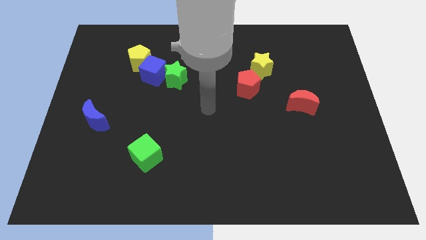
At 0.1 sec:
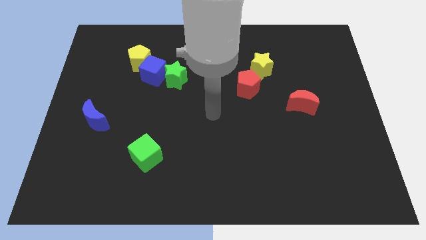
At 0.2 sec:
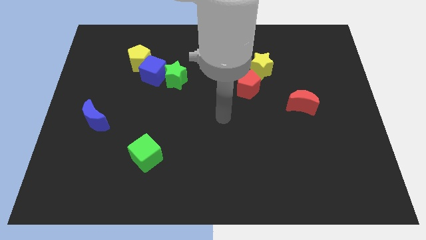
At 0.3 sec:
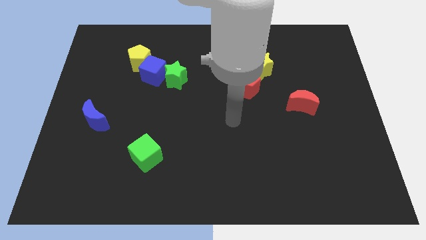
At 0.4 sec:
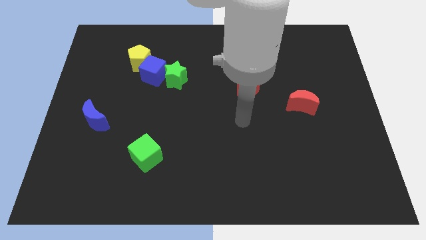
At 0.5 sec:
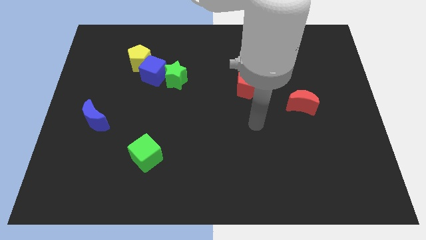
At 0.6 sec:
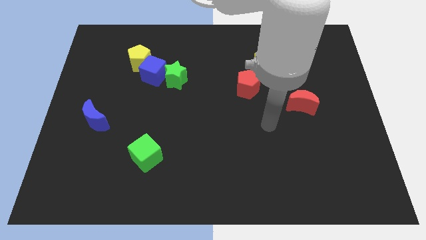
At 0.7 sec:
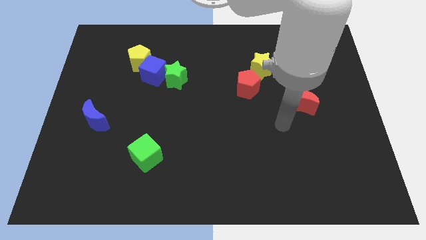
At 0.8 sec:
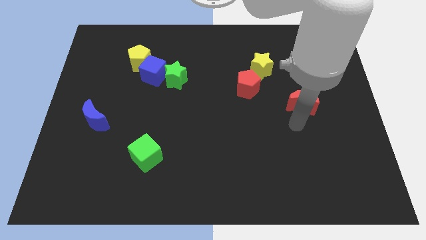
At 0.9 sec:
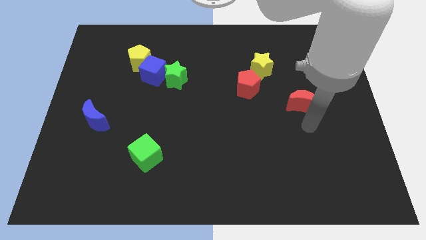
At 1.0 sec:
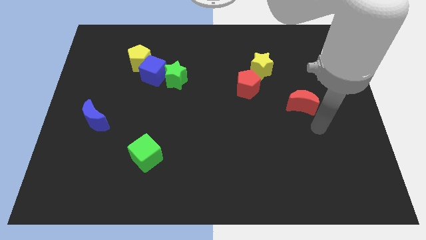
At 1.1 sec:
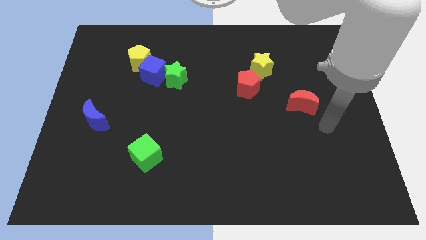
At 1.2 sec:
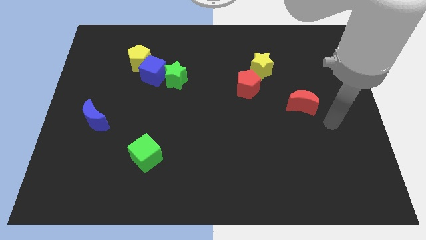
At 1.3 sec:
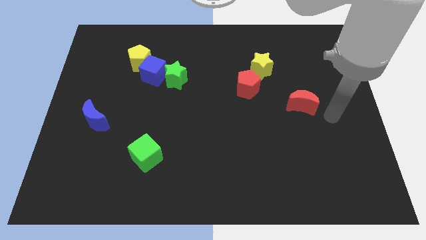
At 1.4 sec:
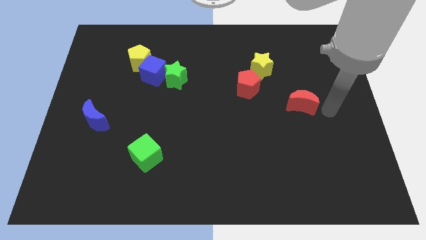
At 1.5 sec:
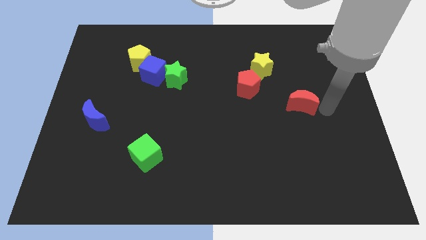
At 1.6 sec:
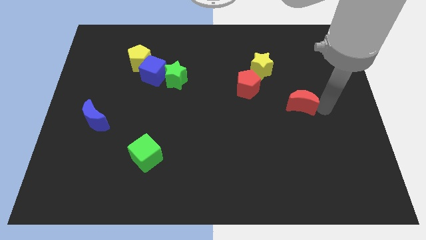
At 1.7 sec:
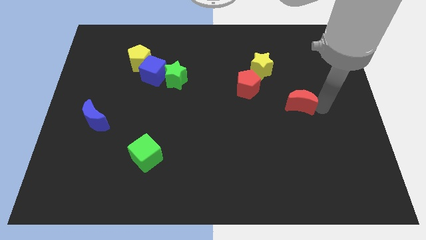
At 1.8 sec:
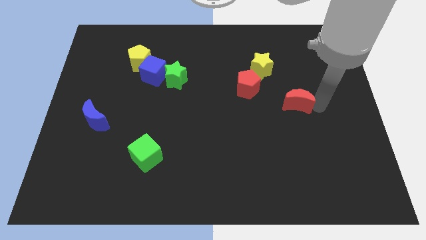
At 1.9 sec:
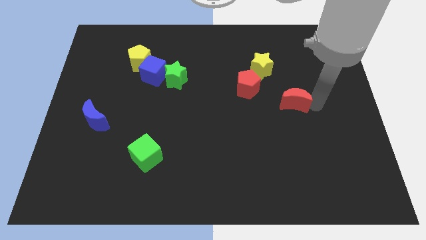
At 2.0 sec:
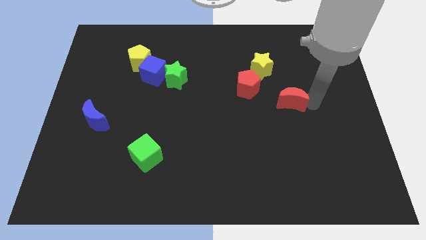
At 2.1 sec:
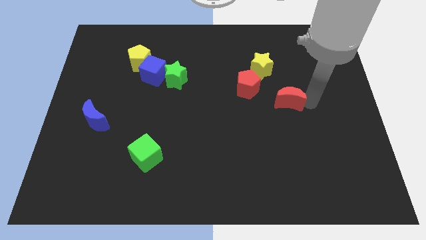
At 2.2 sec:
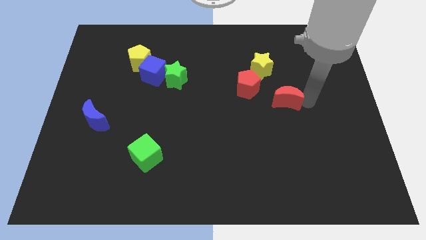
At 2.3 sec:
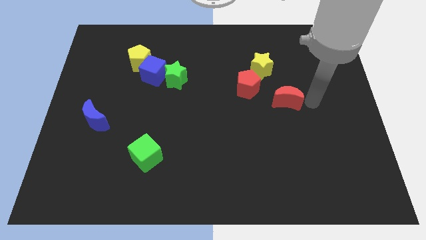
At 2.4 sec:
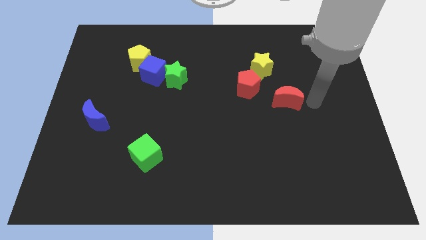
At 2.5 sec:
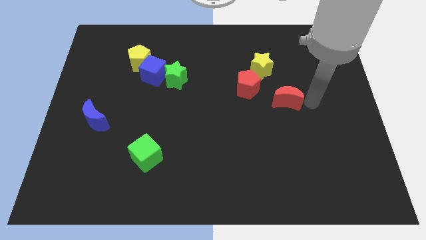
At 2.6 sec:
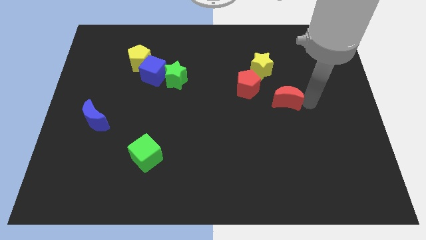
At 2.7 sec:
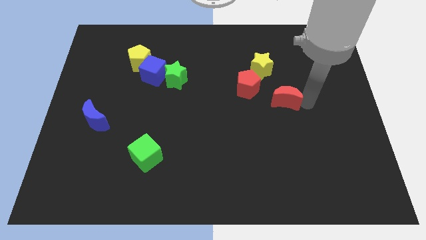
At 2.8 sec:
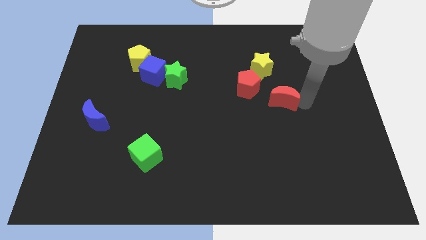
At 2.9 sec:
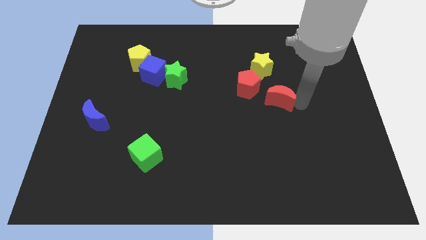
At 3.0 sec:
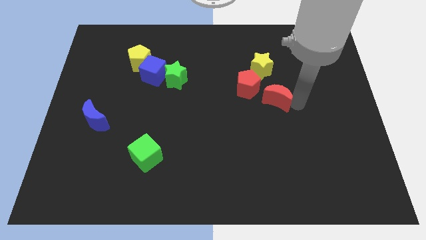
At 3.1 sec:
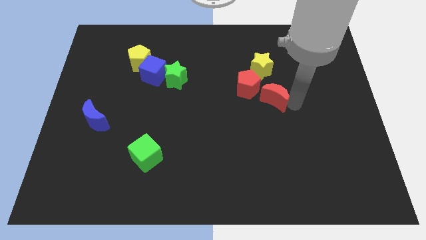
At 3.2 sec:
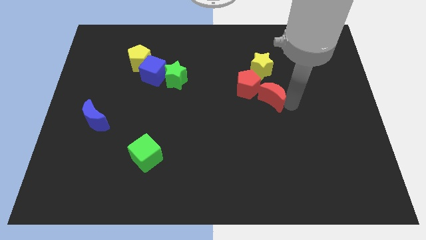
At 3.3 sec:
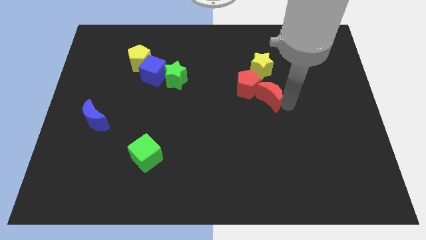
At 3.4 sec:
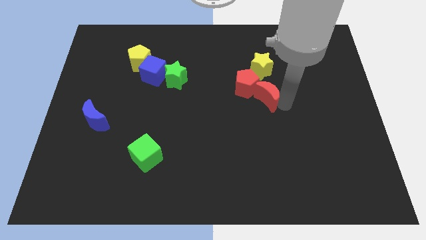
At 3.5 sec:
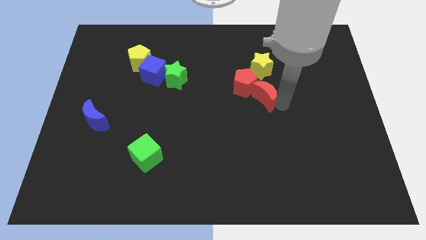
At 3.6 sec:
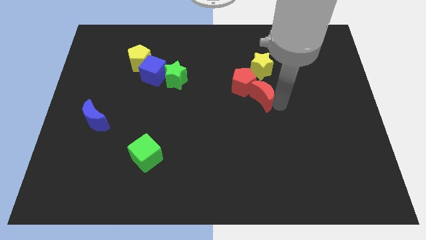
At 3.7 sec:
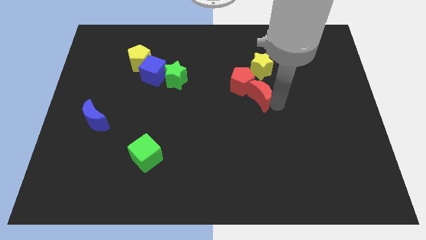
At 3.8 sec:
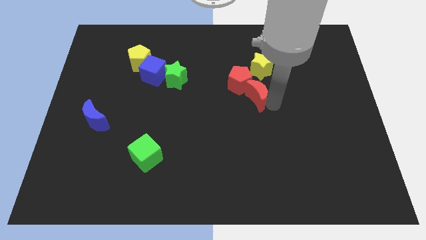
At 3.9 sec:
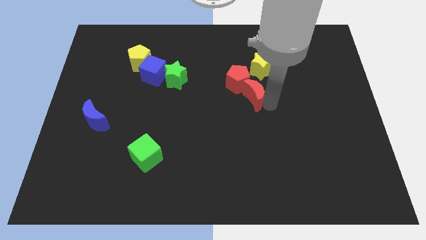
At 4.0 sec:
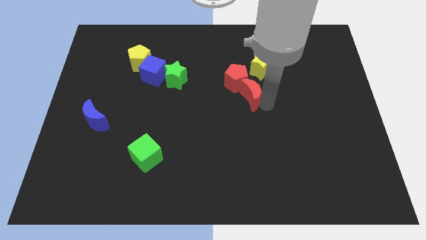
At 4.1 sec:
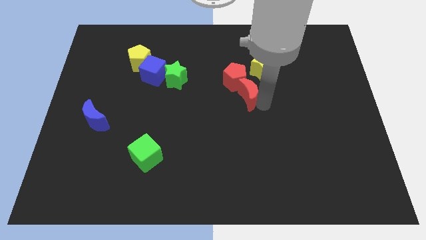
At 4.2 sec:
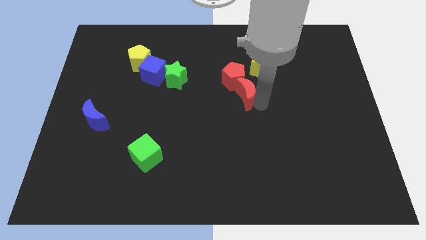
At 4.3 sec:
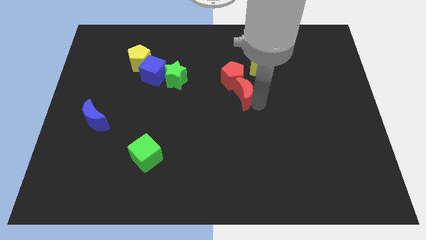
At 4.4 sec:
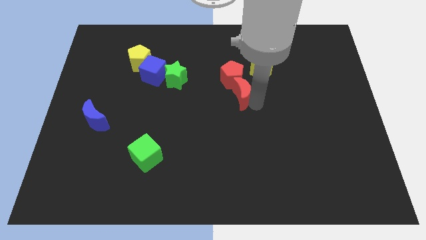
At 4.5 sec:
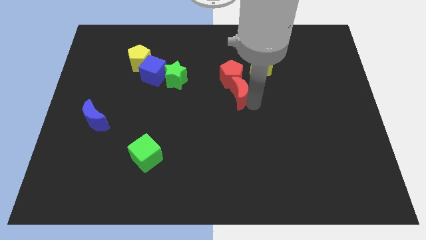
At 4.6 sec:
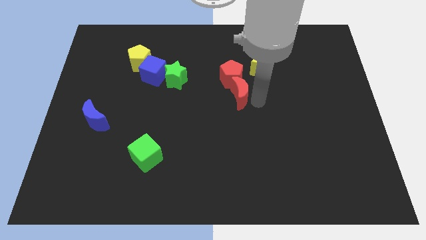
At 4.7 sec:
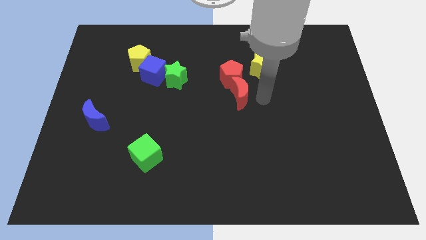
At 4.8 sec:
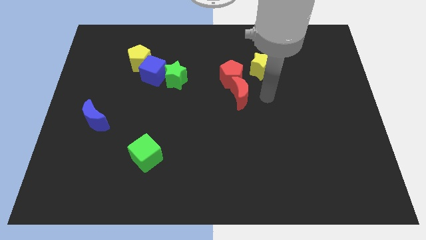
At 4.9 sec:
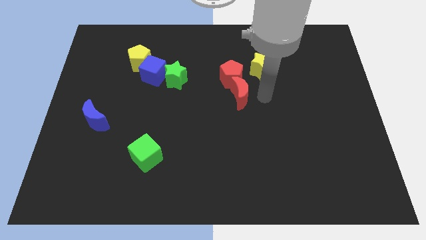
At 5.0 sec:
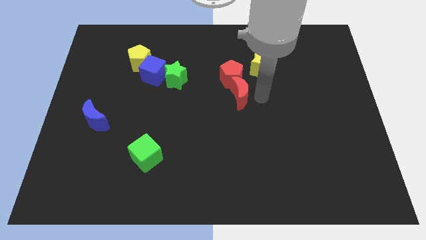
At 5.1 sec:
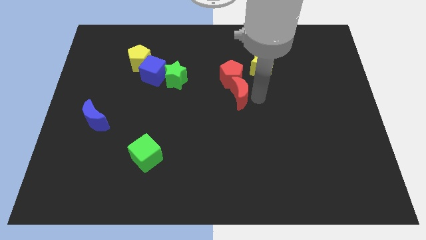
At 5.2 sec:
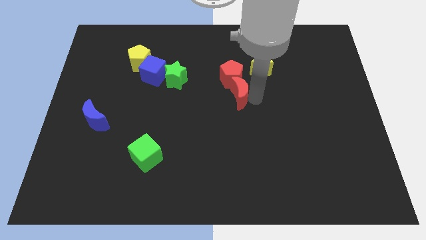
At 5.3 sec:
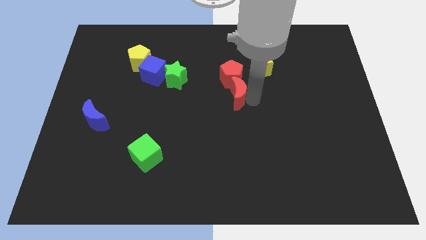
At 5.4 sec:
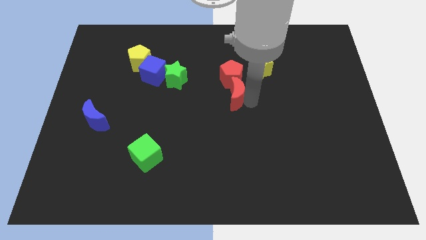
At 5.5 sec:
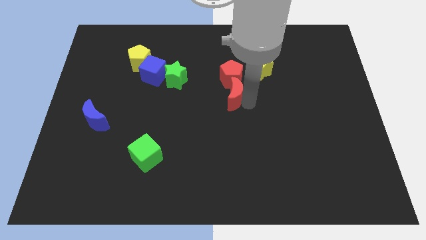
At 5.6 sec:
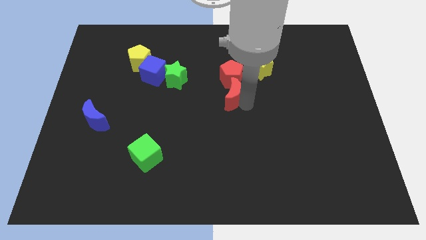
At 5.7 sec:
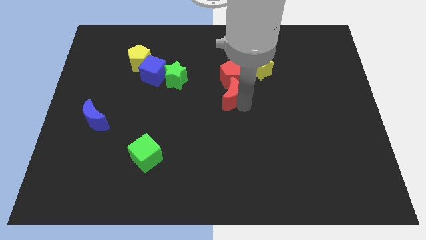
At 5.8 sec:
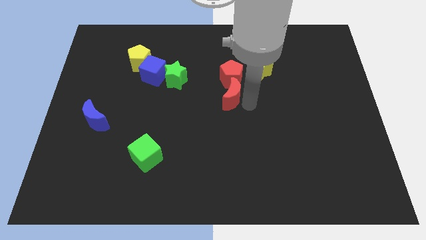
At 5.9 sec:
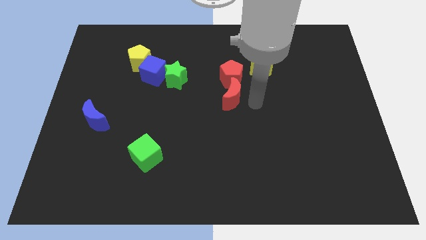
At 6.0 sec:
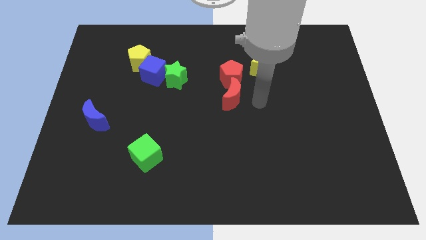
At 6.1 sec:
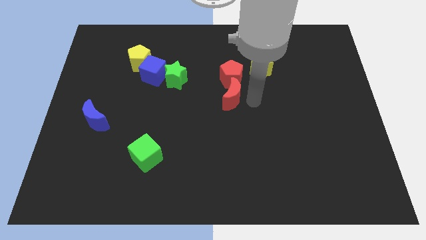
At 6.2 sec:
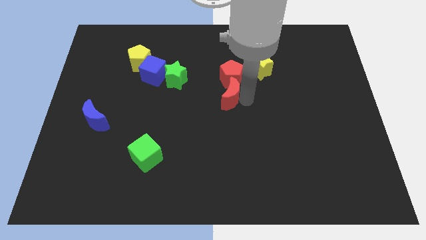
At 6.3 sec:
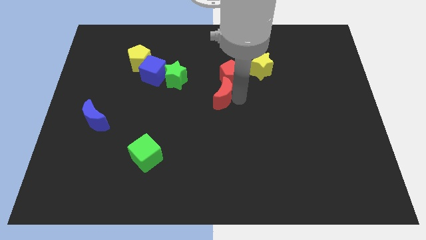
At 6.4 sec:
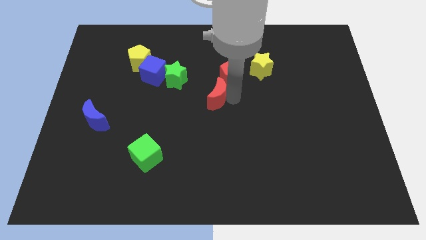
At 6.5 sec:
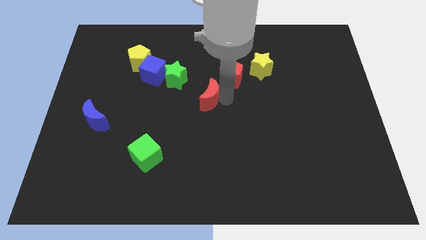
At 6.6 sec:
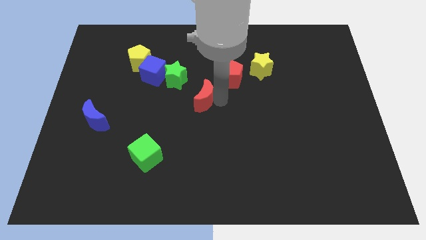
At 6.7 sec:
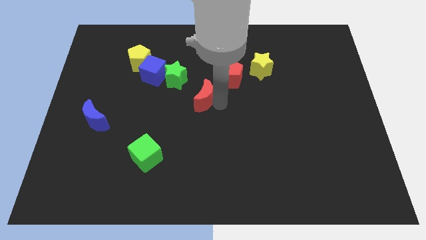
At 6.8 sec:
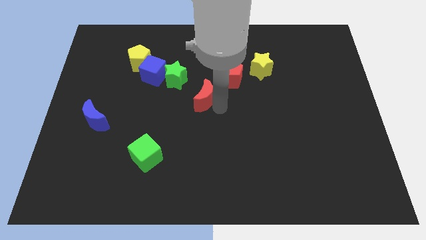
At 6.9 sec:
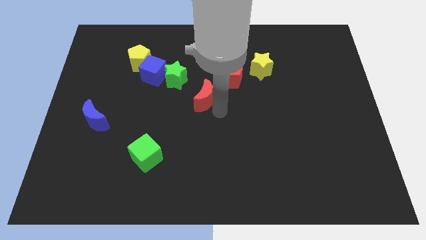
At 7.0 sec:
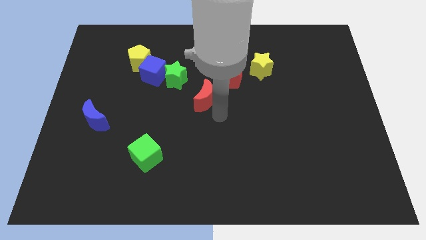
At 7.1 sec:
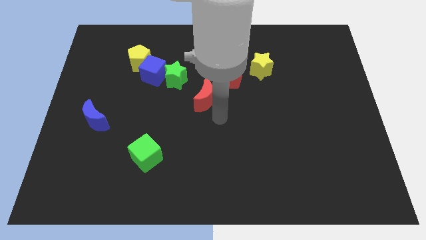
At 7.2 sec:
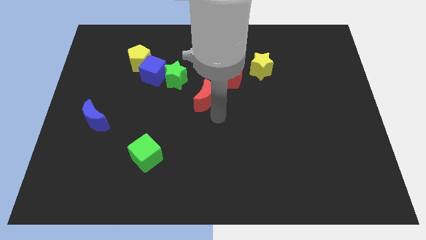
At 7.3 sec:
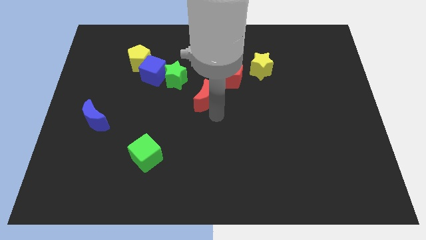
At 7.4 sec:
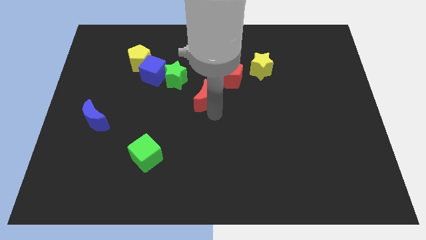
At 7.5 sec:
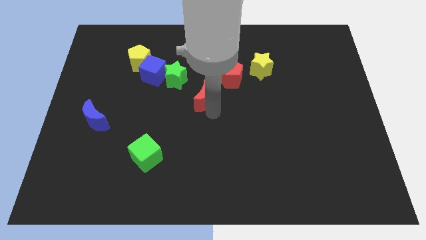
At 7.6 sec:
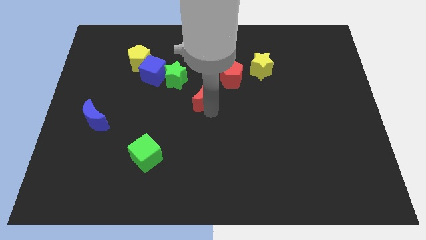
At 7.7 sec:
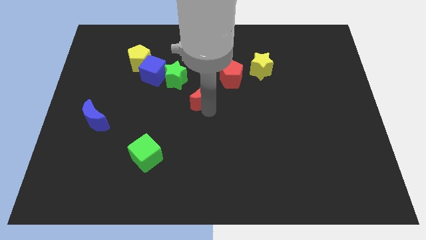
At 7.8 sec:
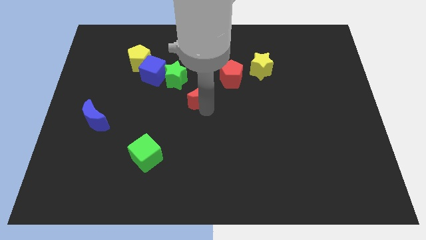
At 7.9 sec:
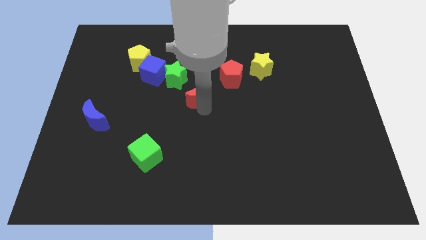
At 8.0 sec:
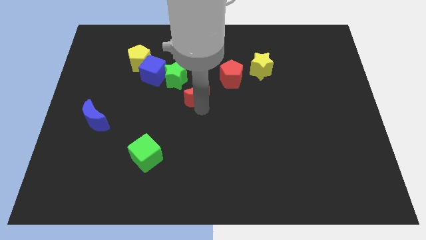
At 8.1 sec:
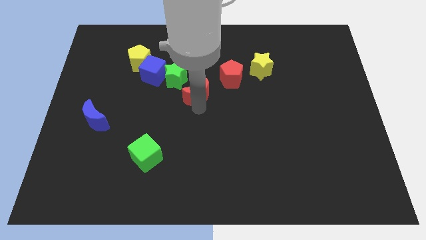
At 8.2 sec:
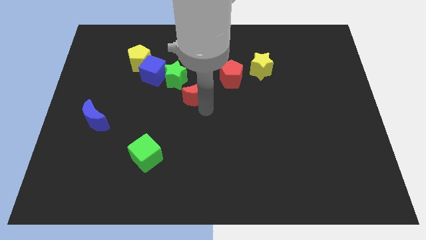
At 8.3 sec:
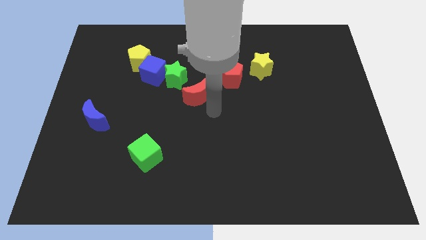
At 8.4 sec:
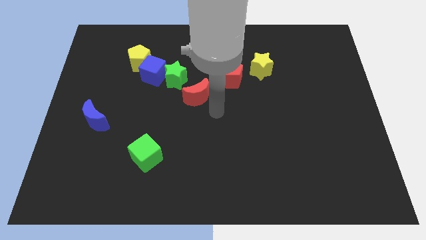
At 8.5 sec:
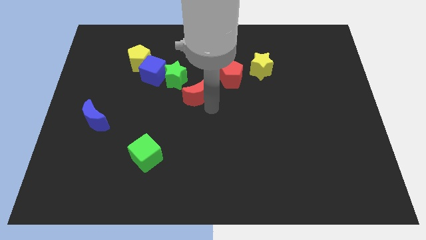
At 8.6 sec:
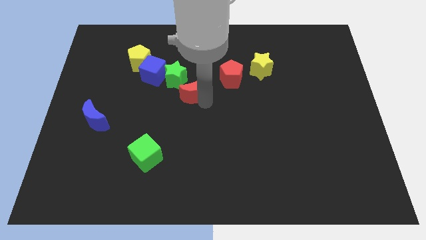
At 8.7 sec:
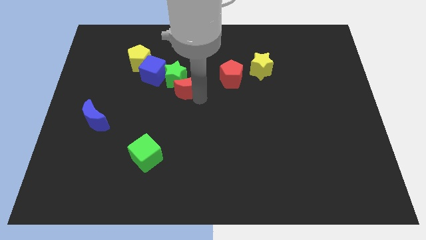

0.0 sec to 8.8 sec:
slide the red moon close to the green star
